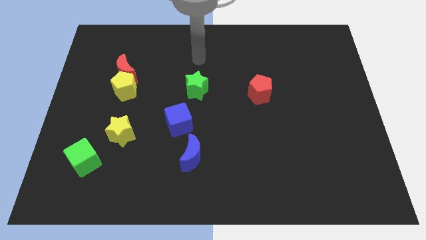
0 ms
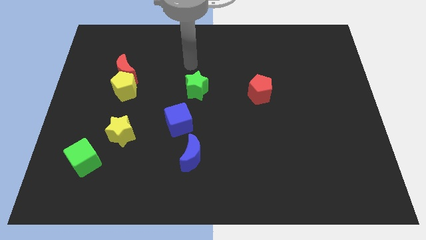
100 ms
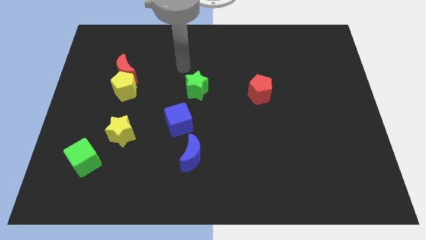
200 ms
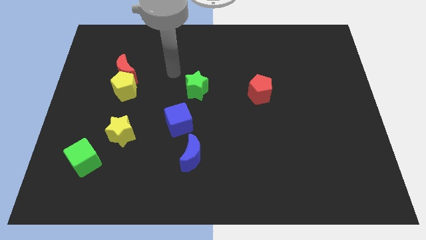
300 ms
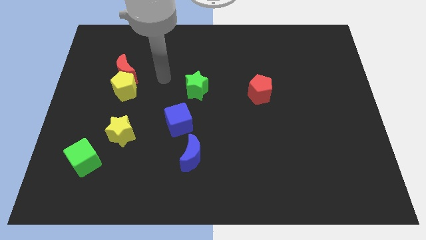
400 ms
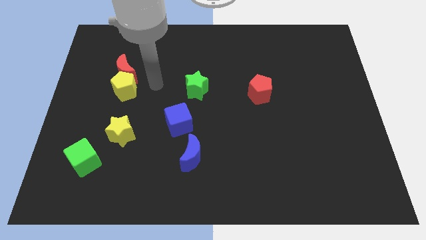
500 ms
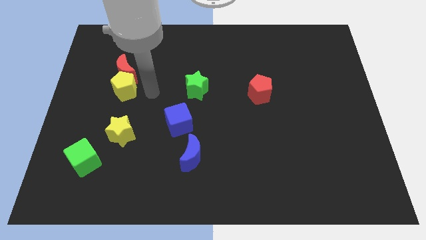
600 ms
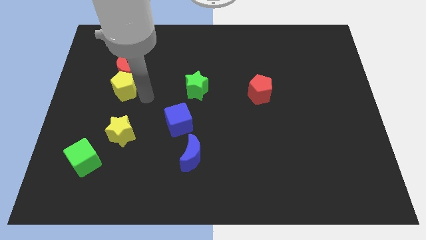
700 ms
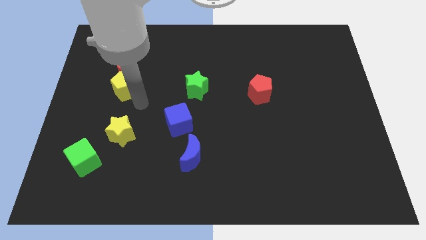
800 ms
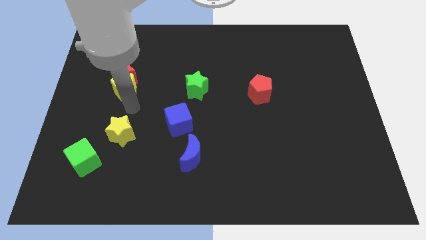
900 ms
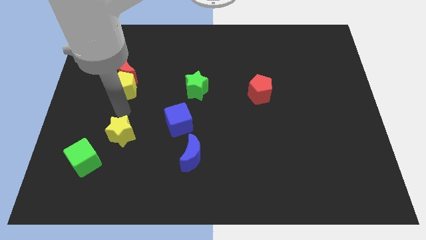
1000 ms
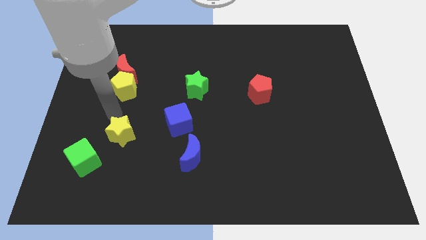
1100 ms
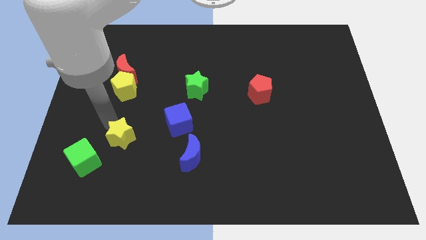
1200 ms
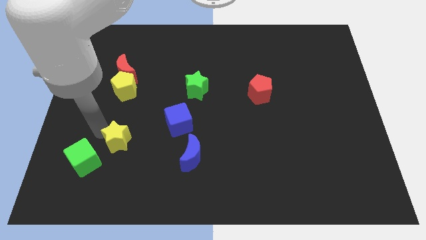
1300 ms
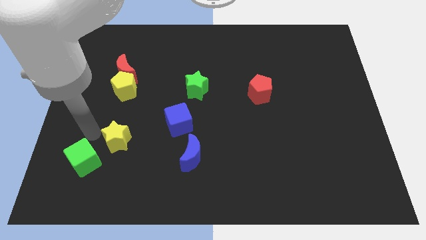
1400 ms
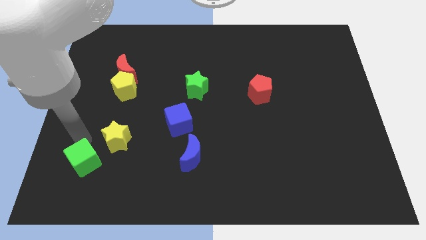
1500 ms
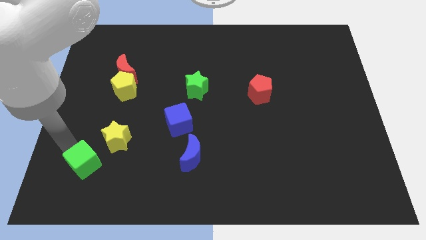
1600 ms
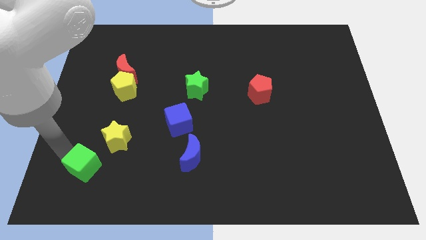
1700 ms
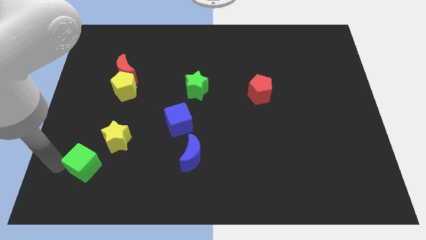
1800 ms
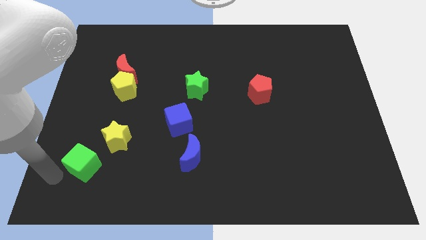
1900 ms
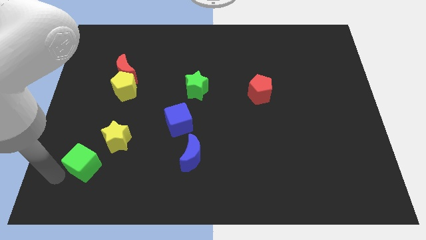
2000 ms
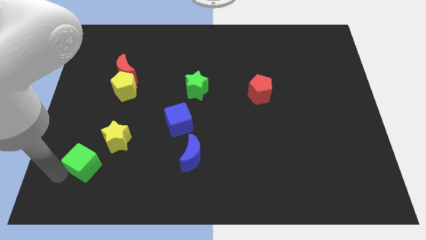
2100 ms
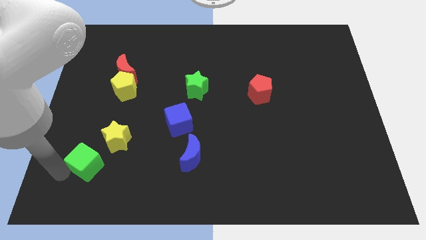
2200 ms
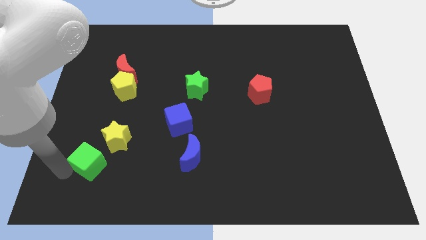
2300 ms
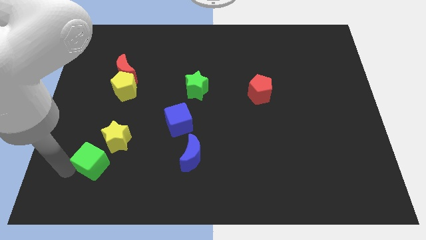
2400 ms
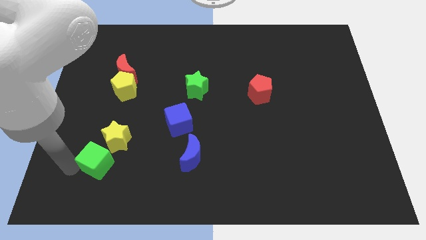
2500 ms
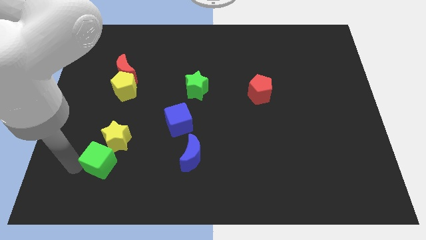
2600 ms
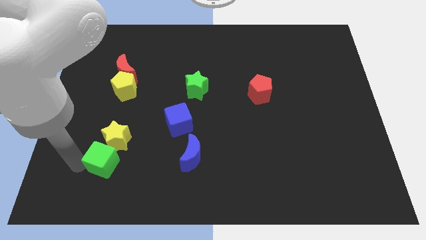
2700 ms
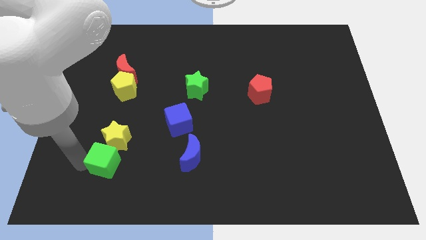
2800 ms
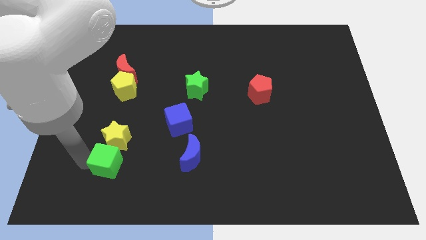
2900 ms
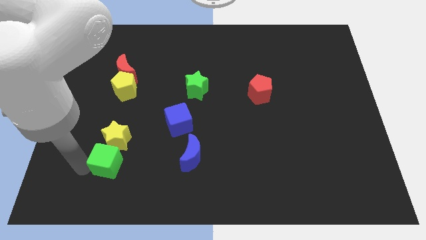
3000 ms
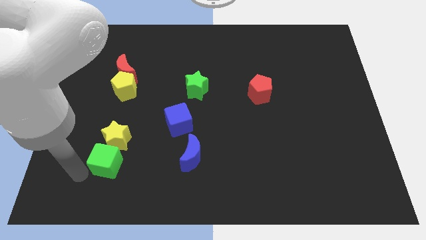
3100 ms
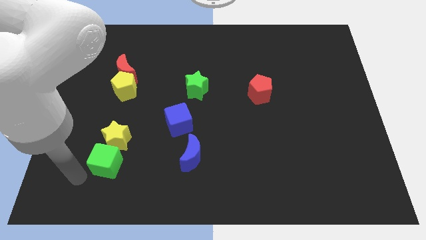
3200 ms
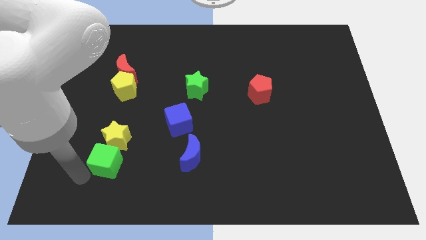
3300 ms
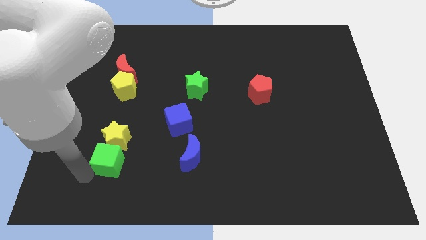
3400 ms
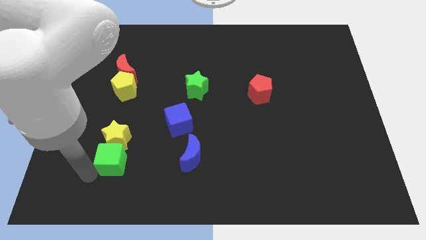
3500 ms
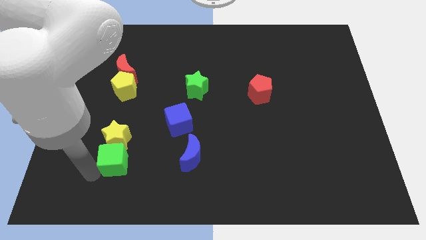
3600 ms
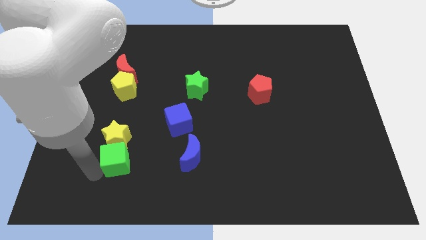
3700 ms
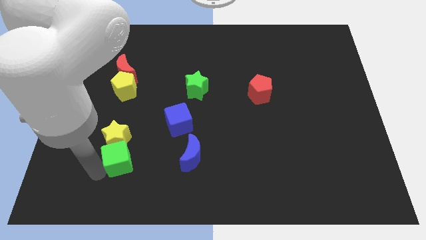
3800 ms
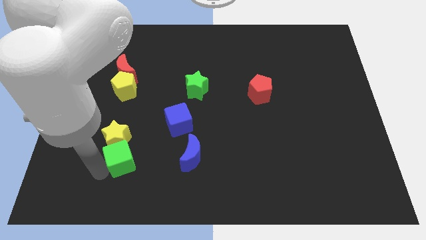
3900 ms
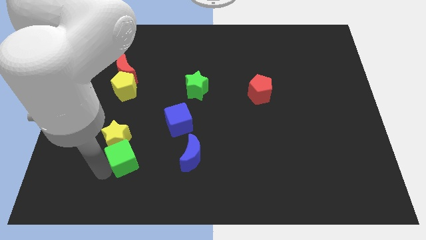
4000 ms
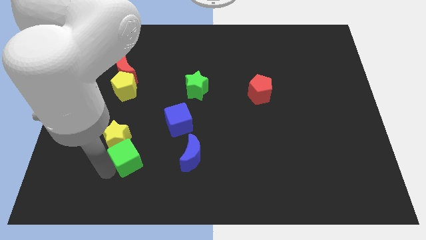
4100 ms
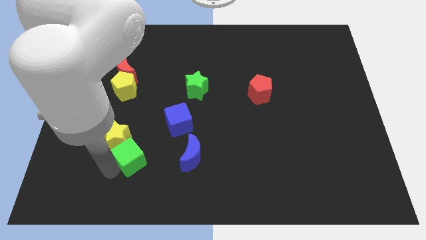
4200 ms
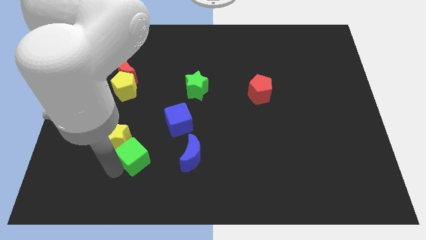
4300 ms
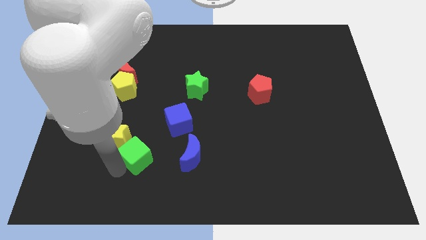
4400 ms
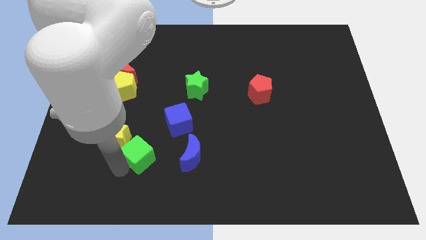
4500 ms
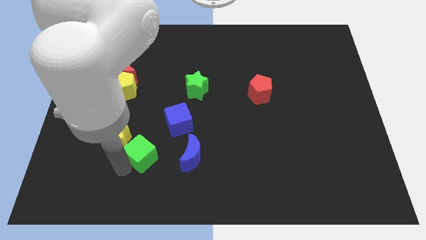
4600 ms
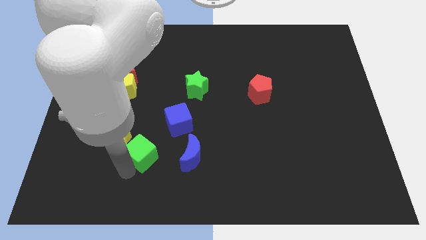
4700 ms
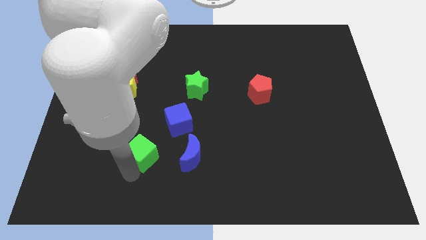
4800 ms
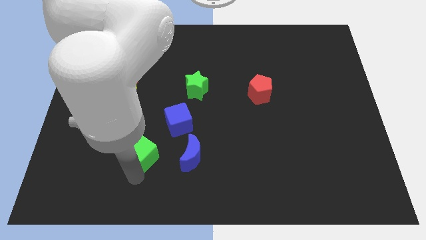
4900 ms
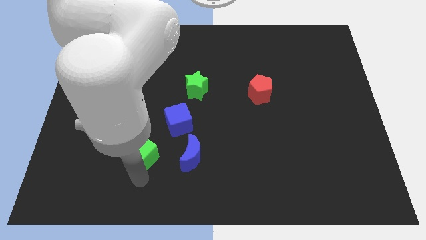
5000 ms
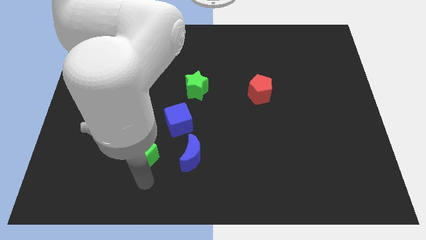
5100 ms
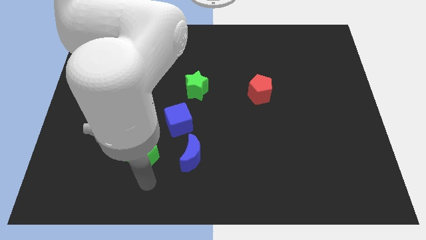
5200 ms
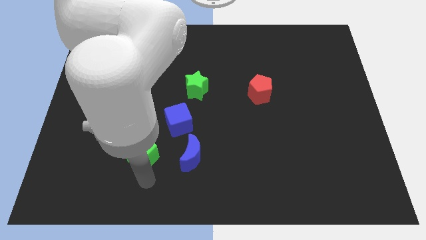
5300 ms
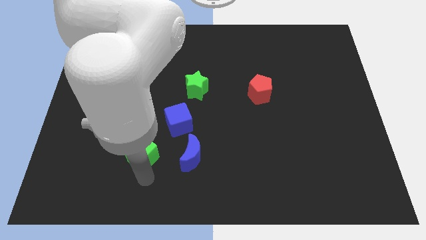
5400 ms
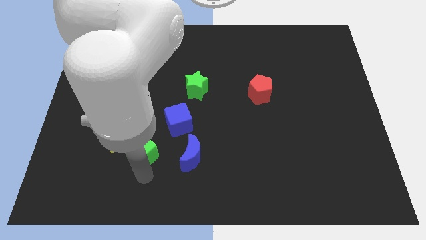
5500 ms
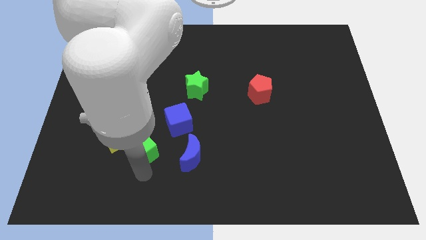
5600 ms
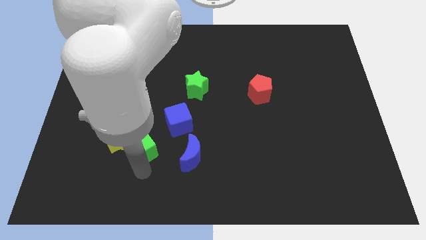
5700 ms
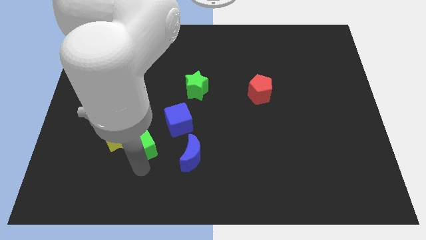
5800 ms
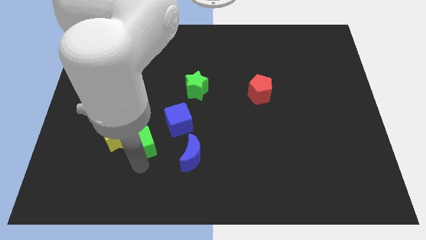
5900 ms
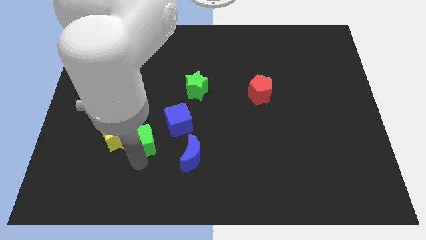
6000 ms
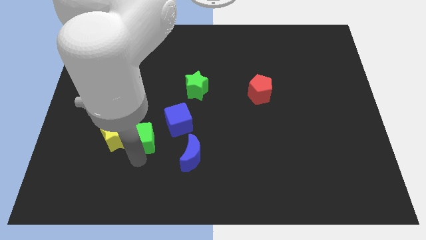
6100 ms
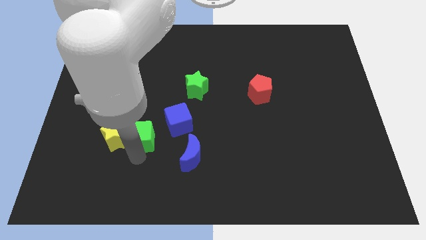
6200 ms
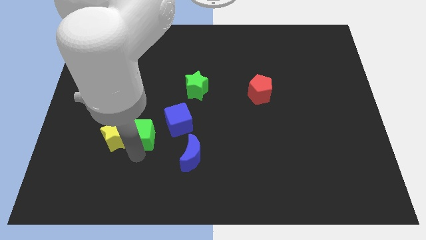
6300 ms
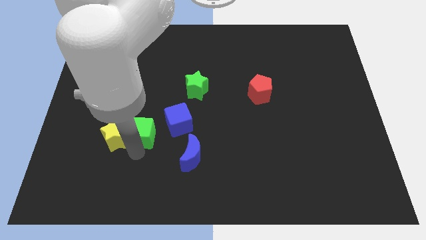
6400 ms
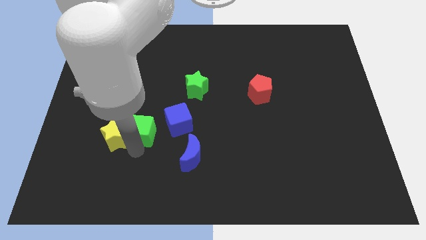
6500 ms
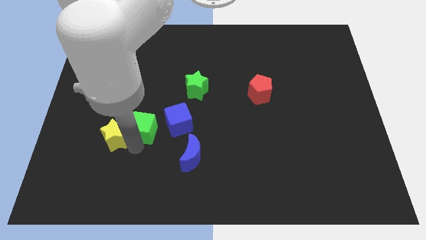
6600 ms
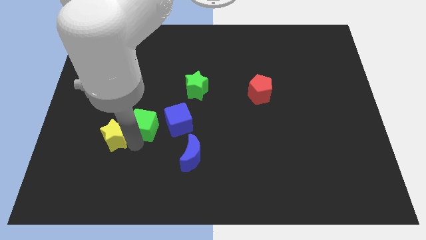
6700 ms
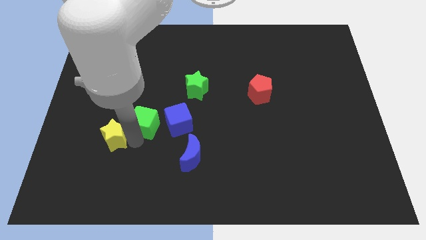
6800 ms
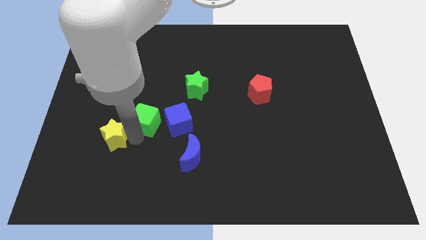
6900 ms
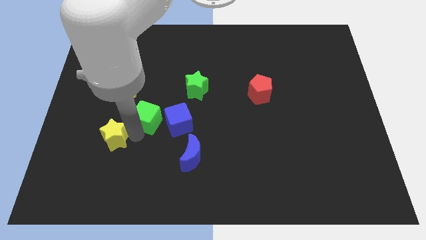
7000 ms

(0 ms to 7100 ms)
slide the green cube to the top left of the blue cube
